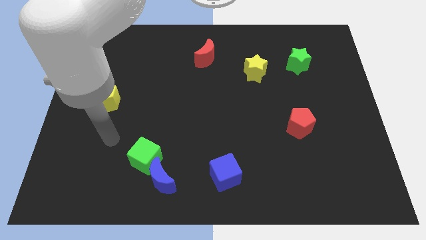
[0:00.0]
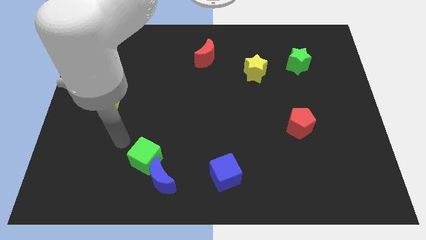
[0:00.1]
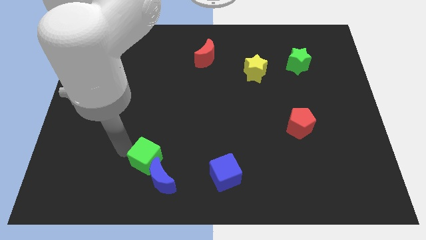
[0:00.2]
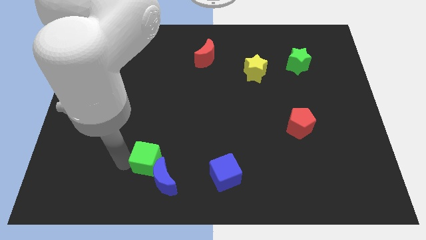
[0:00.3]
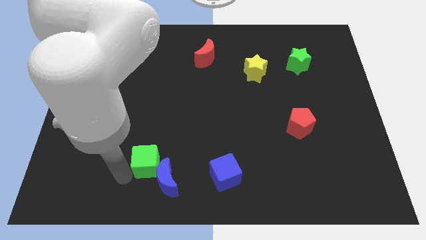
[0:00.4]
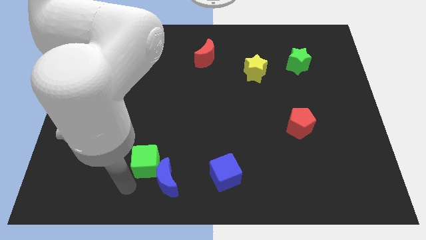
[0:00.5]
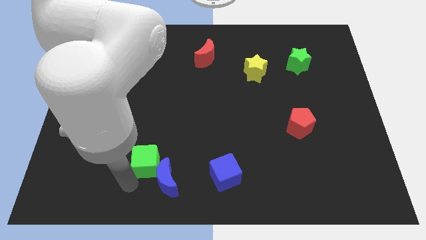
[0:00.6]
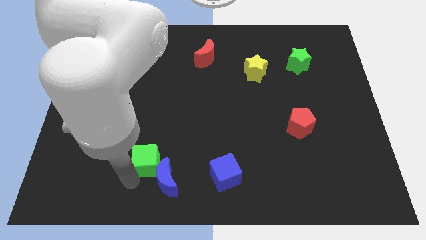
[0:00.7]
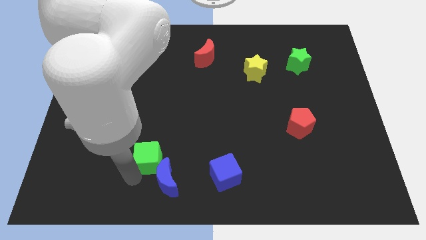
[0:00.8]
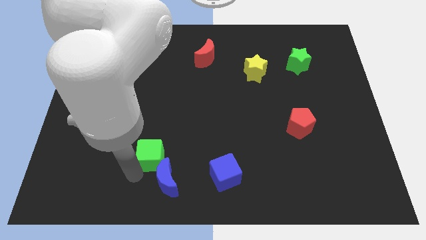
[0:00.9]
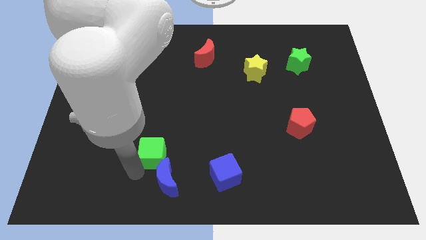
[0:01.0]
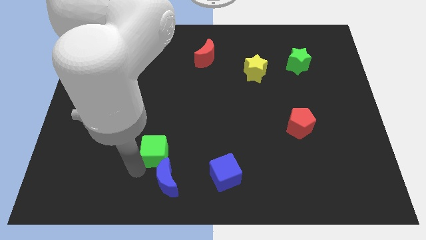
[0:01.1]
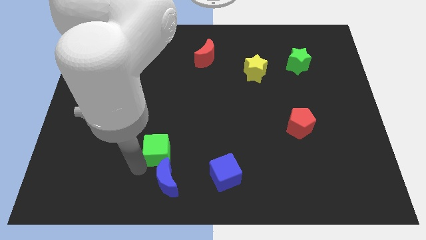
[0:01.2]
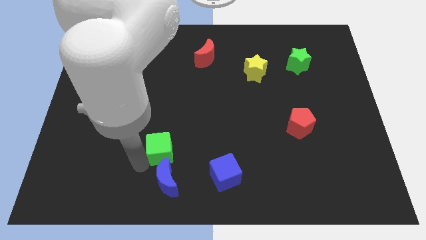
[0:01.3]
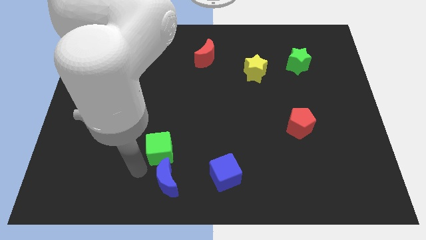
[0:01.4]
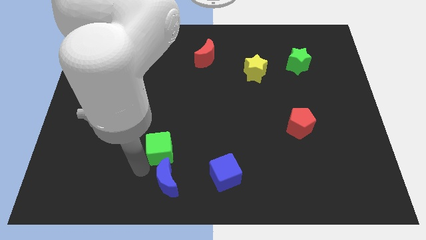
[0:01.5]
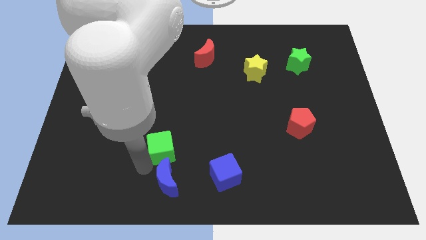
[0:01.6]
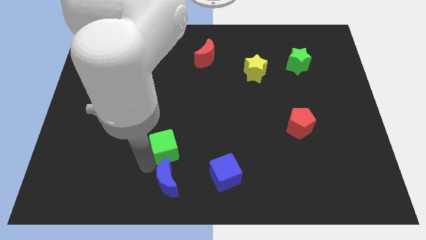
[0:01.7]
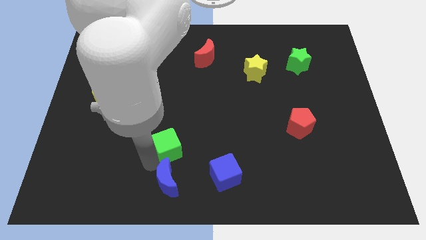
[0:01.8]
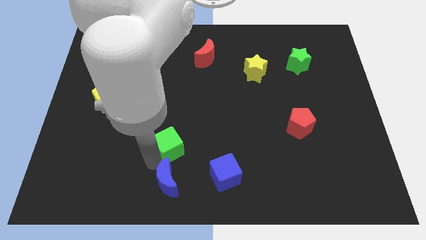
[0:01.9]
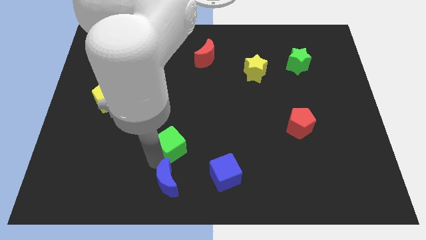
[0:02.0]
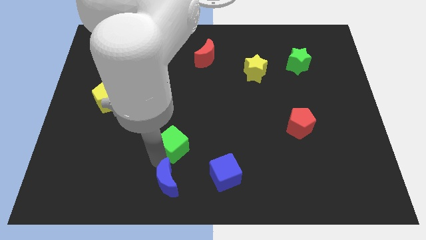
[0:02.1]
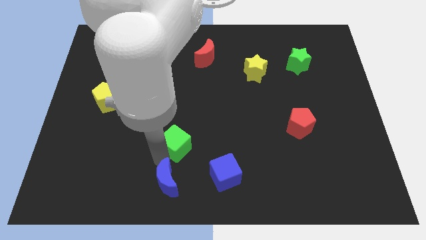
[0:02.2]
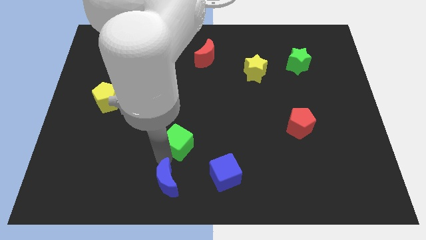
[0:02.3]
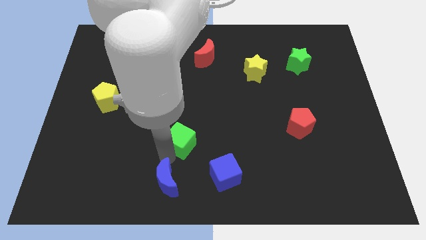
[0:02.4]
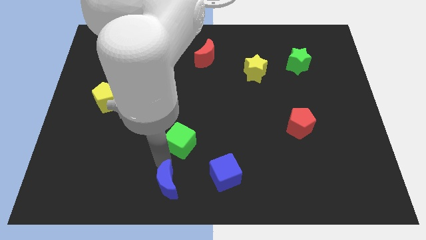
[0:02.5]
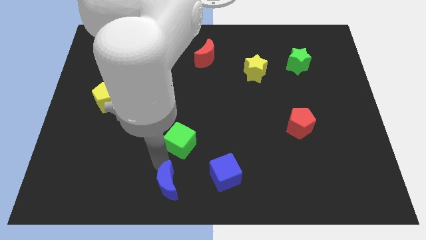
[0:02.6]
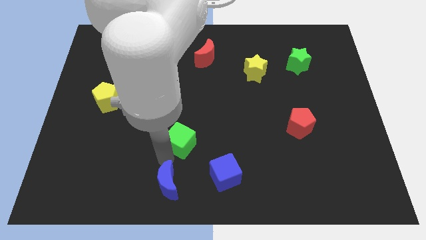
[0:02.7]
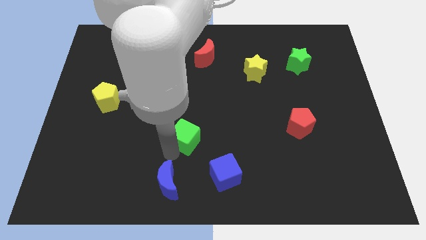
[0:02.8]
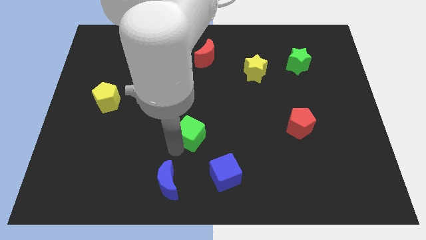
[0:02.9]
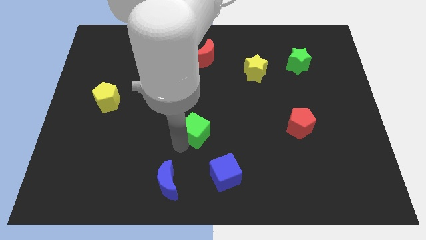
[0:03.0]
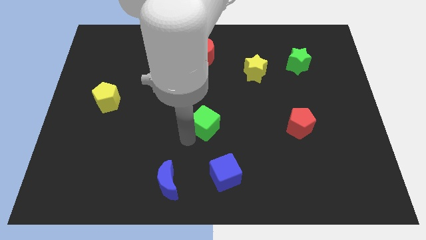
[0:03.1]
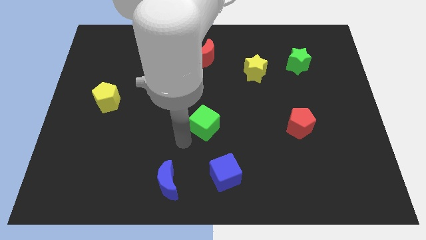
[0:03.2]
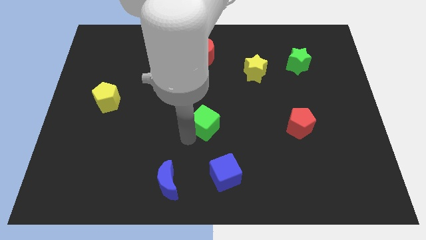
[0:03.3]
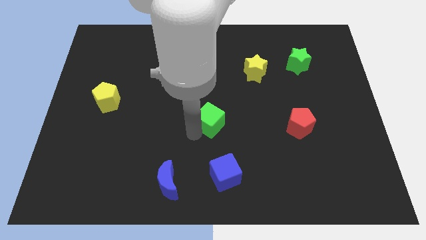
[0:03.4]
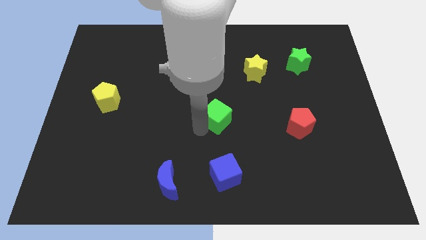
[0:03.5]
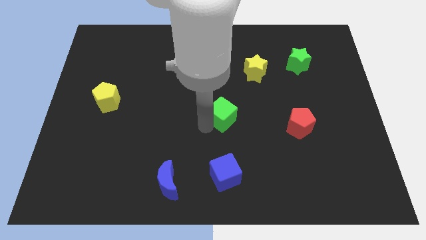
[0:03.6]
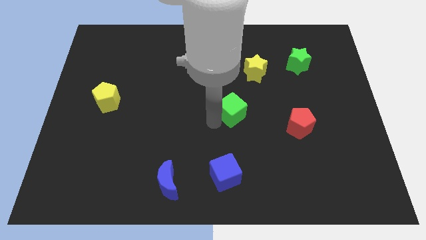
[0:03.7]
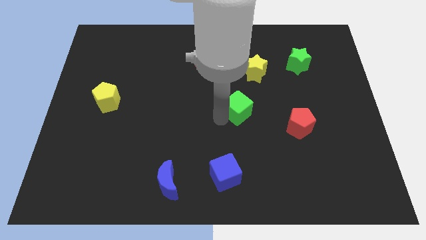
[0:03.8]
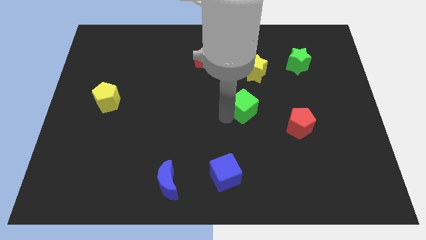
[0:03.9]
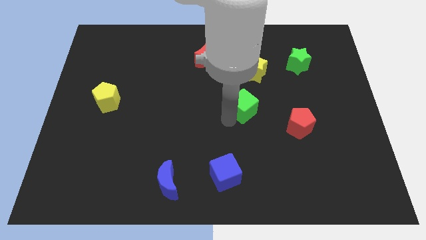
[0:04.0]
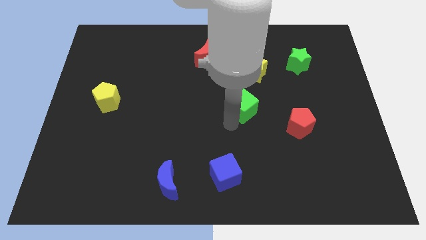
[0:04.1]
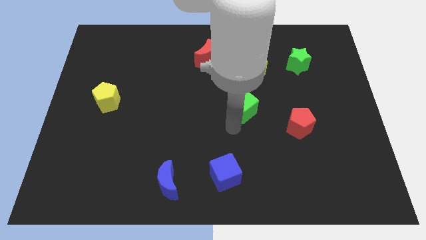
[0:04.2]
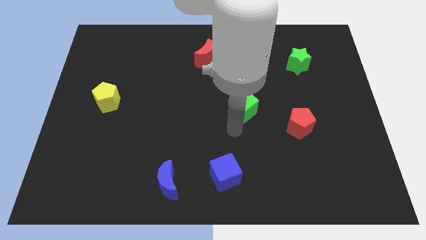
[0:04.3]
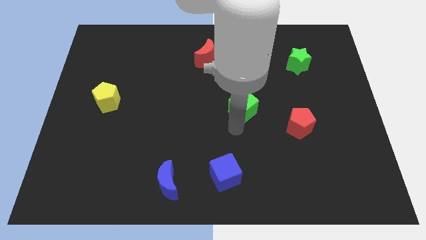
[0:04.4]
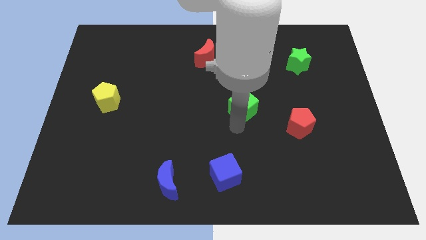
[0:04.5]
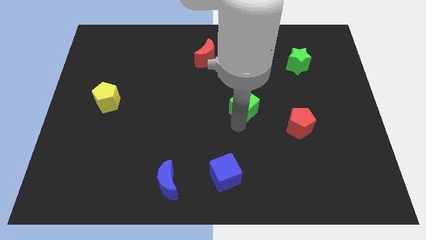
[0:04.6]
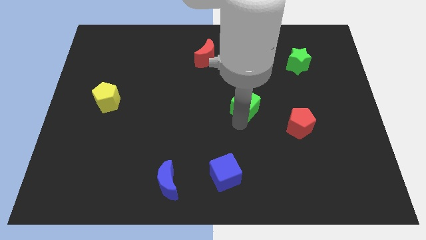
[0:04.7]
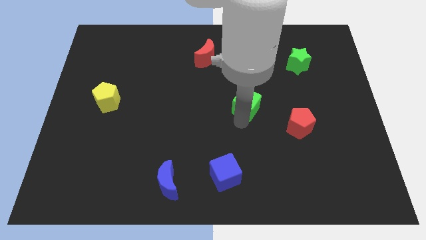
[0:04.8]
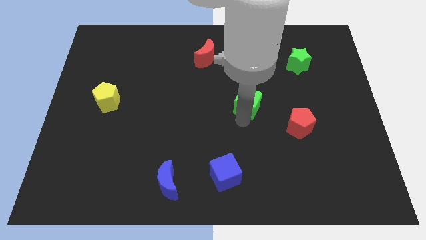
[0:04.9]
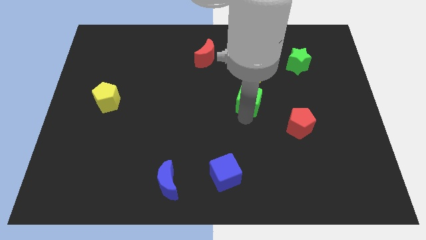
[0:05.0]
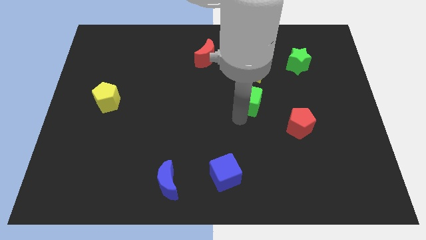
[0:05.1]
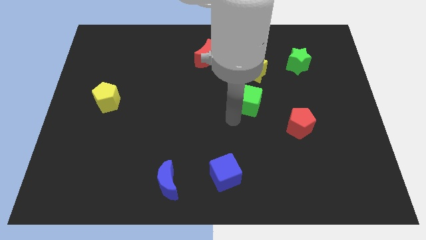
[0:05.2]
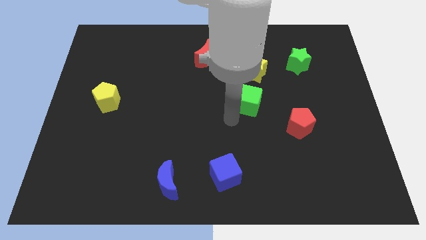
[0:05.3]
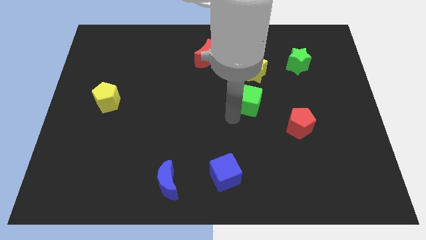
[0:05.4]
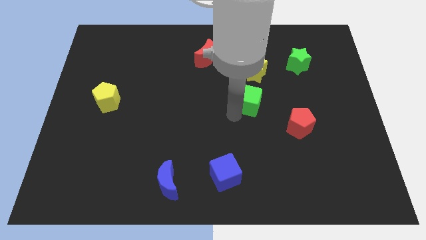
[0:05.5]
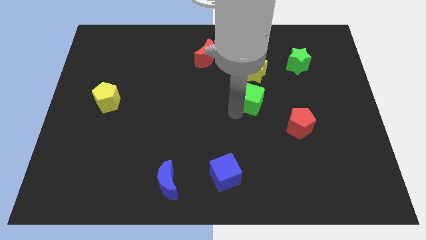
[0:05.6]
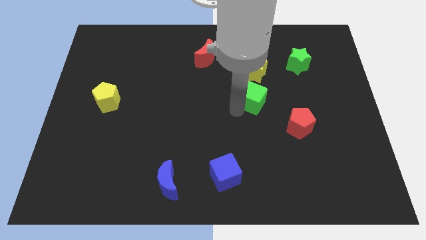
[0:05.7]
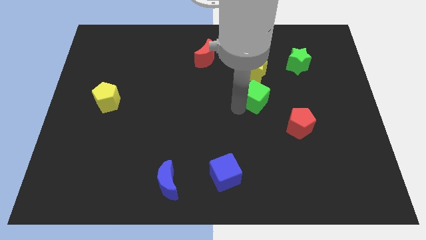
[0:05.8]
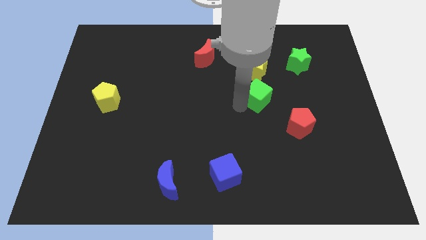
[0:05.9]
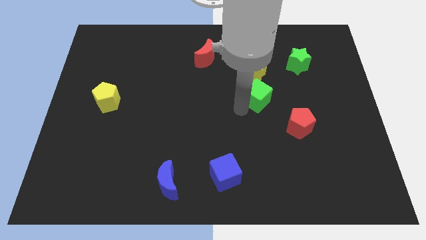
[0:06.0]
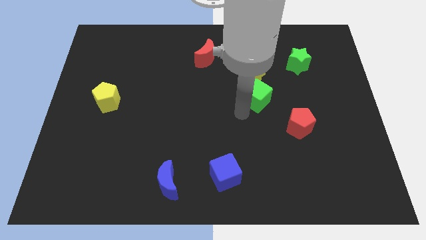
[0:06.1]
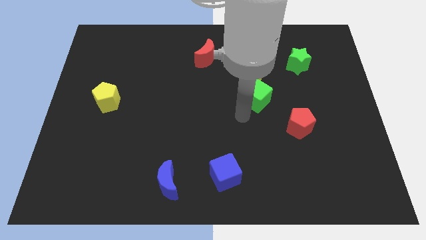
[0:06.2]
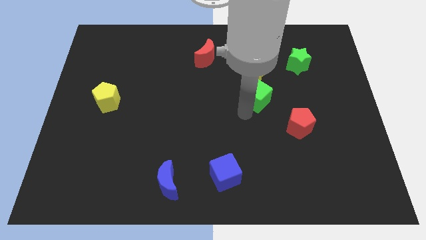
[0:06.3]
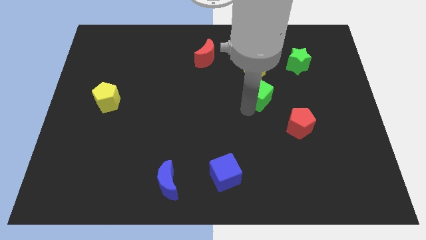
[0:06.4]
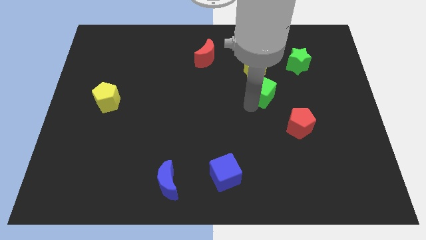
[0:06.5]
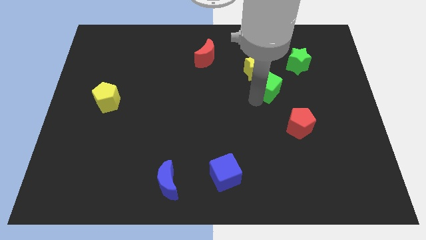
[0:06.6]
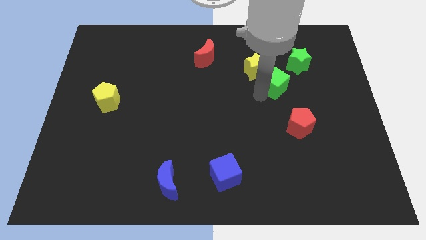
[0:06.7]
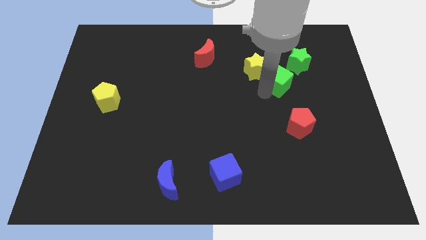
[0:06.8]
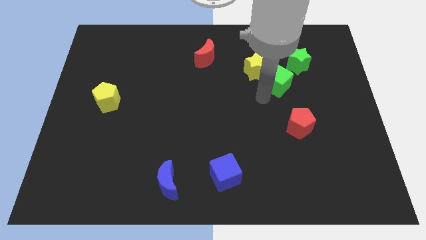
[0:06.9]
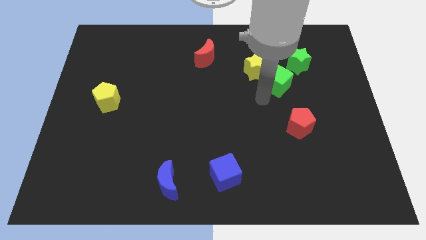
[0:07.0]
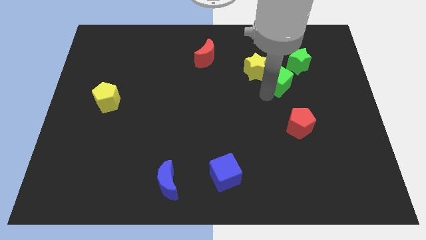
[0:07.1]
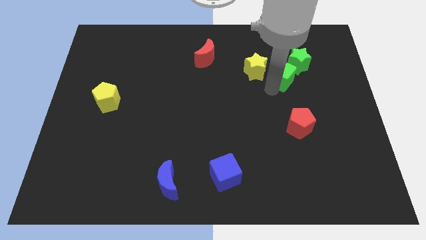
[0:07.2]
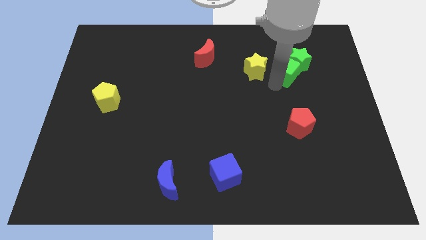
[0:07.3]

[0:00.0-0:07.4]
put the green cube to the green star
